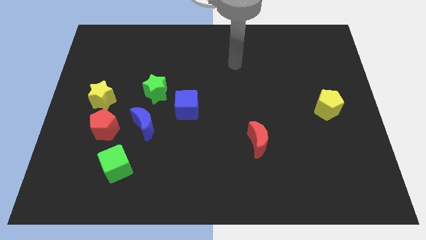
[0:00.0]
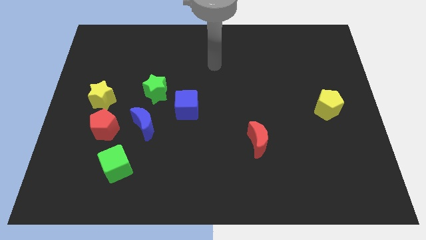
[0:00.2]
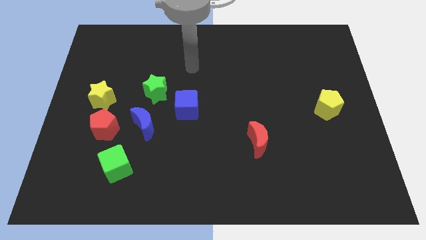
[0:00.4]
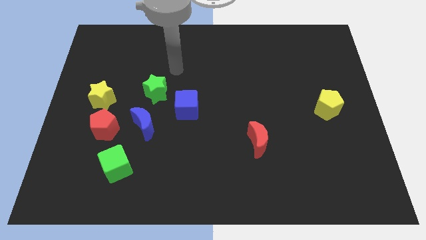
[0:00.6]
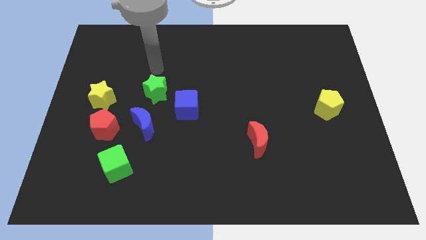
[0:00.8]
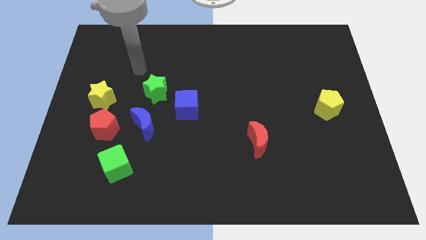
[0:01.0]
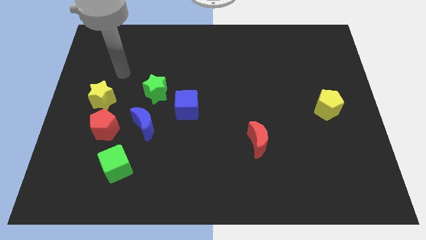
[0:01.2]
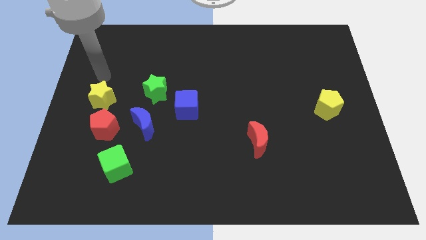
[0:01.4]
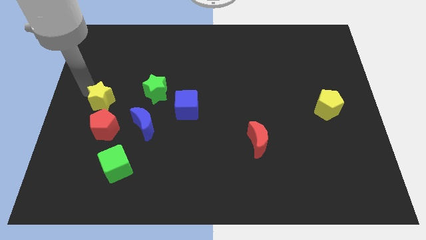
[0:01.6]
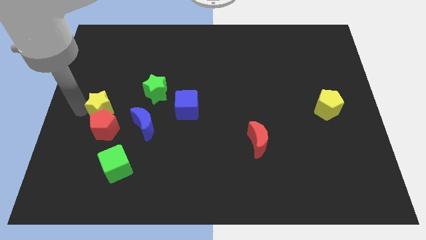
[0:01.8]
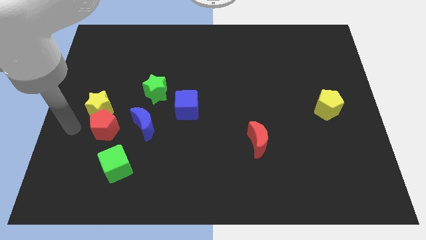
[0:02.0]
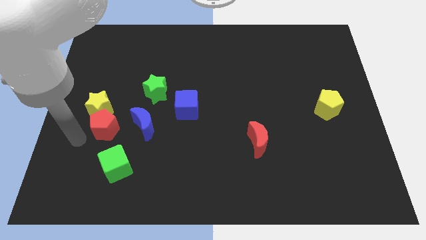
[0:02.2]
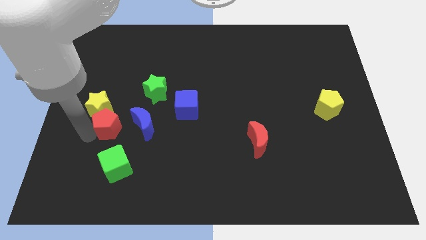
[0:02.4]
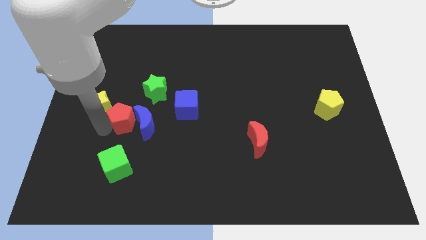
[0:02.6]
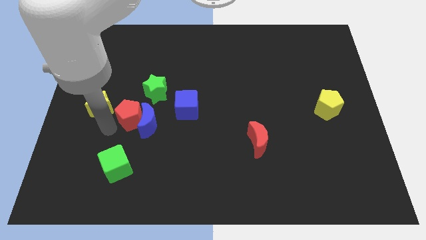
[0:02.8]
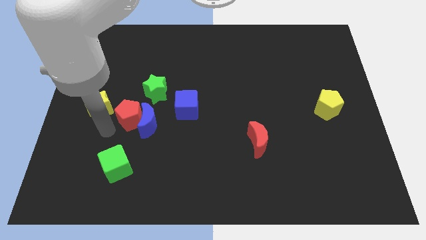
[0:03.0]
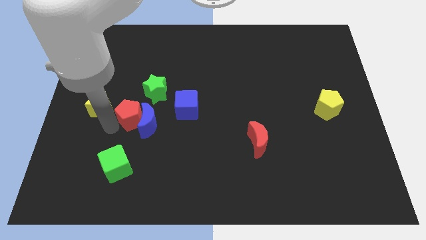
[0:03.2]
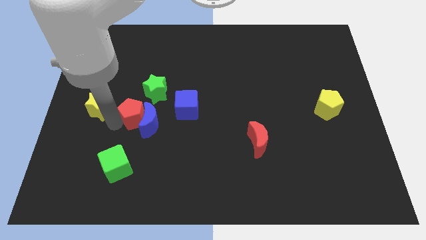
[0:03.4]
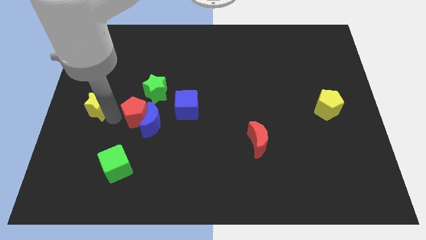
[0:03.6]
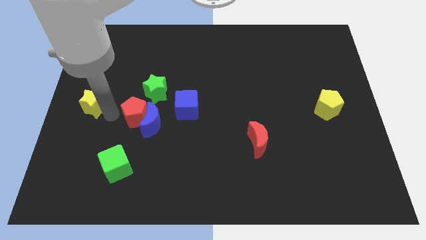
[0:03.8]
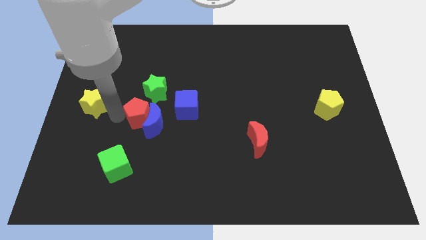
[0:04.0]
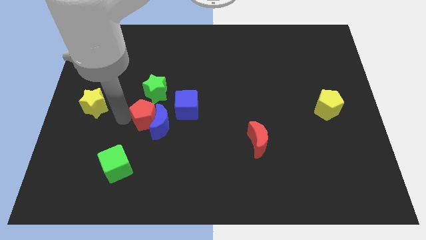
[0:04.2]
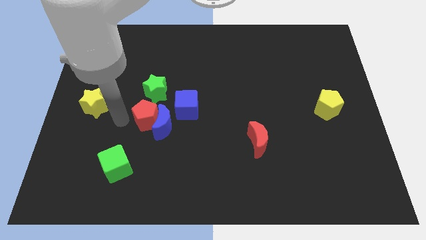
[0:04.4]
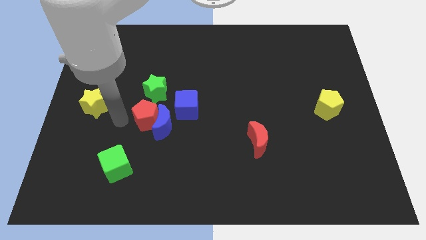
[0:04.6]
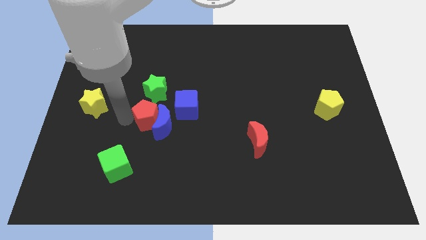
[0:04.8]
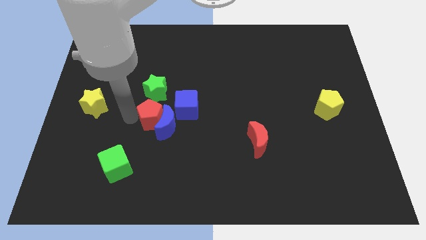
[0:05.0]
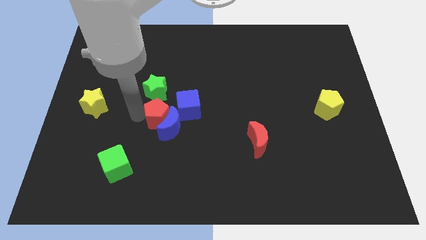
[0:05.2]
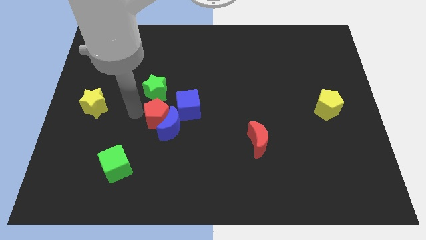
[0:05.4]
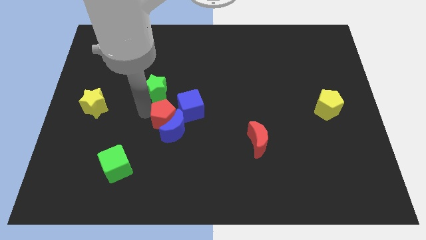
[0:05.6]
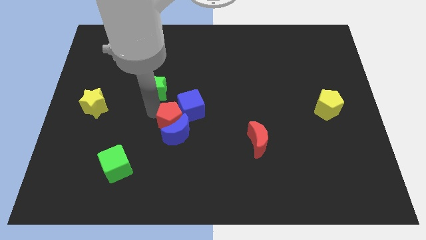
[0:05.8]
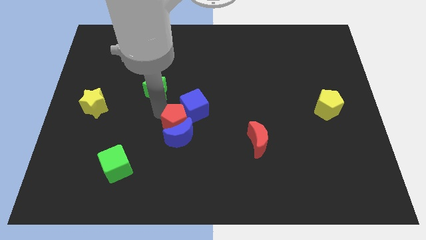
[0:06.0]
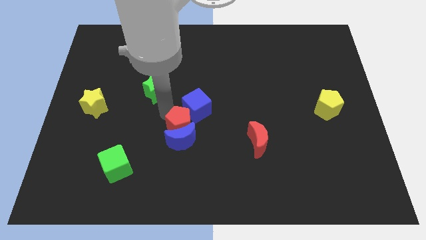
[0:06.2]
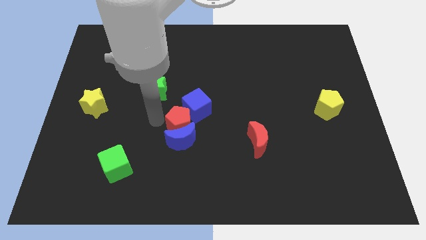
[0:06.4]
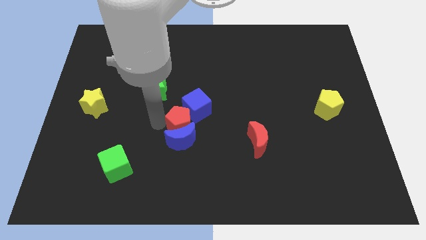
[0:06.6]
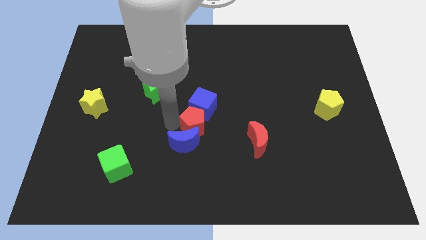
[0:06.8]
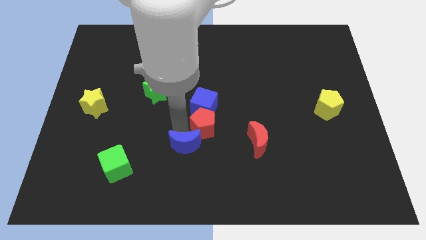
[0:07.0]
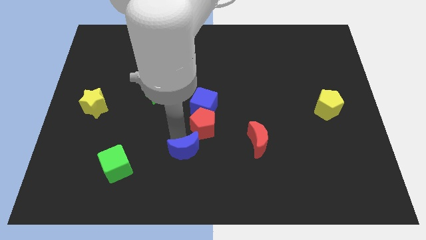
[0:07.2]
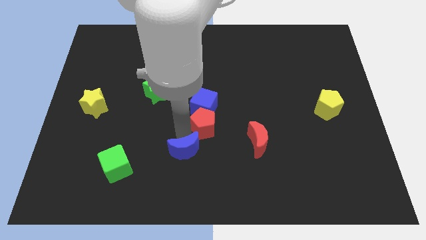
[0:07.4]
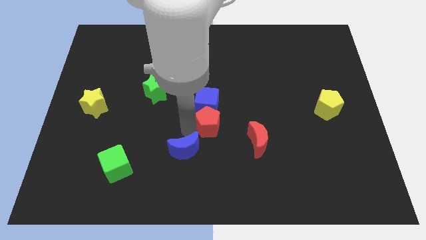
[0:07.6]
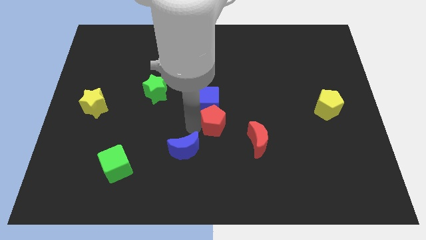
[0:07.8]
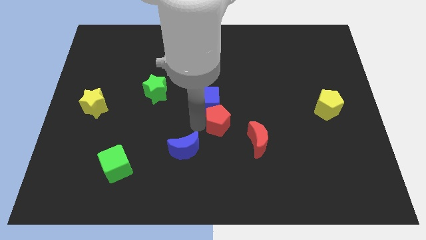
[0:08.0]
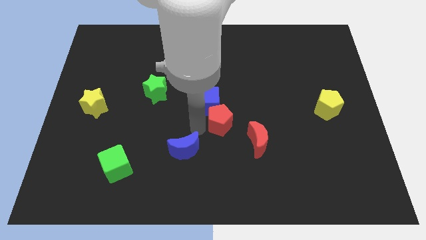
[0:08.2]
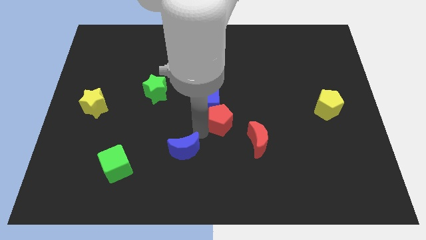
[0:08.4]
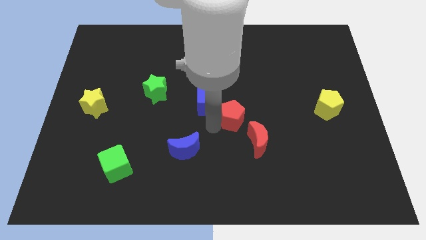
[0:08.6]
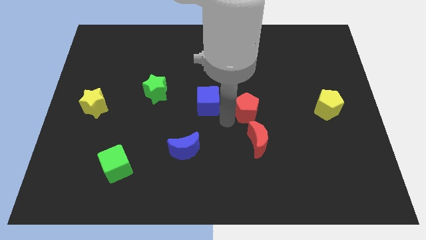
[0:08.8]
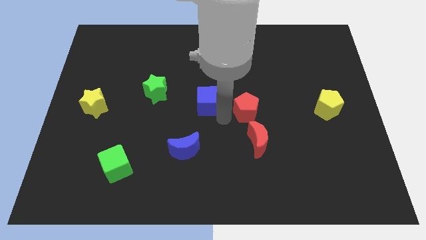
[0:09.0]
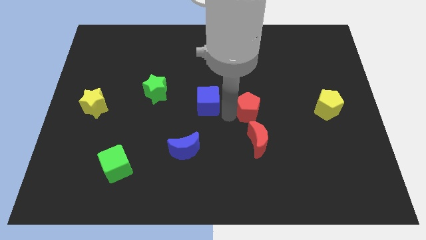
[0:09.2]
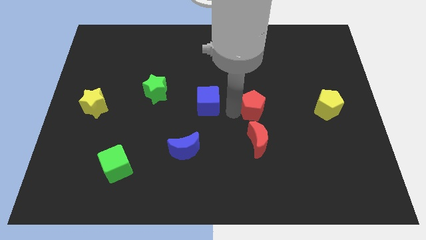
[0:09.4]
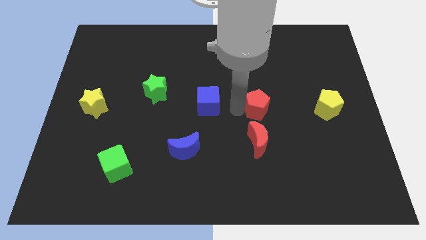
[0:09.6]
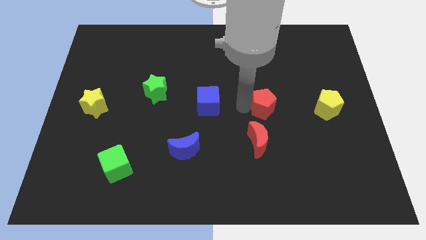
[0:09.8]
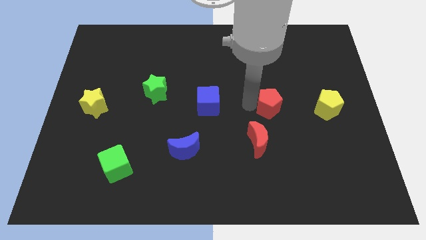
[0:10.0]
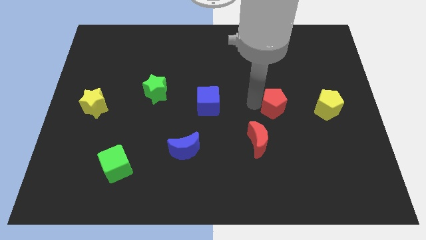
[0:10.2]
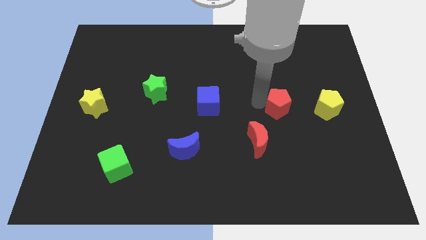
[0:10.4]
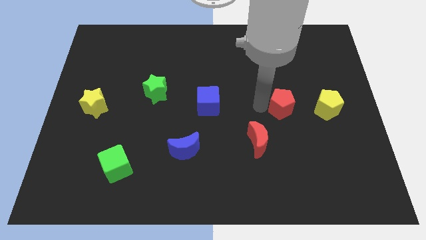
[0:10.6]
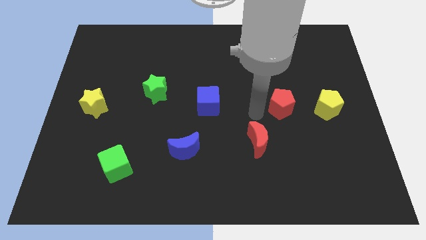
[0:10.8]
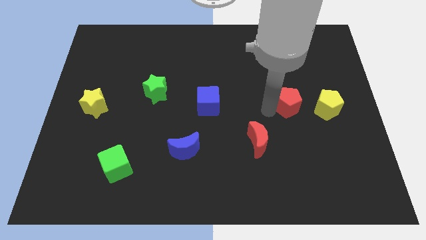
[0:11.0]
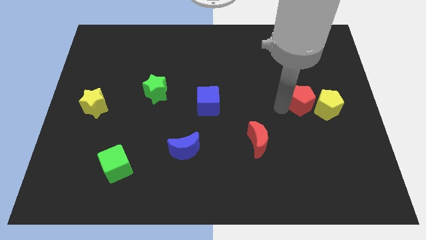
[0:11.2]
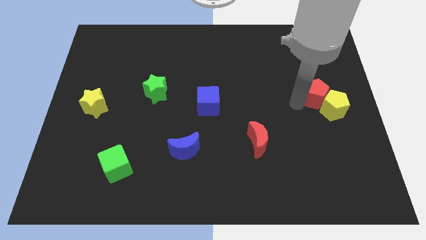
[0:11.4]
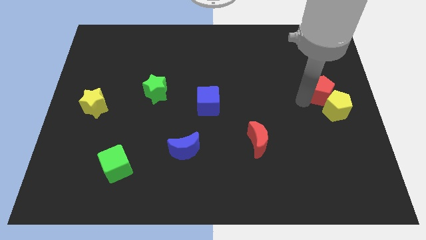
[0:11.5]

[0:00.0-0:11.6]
push the red pentagon to the center right
